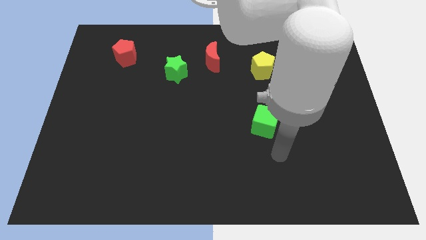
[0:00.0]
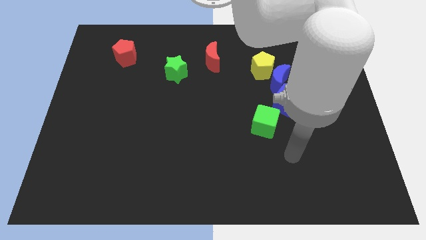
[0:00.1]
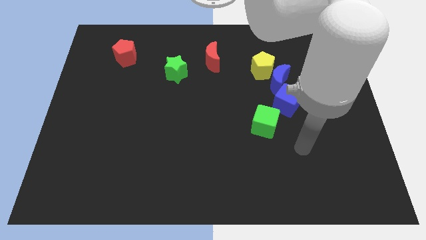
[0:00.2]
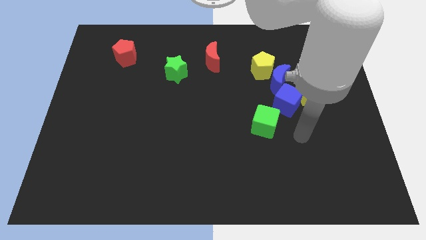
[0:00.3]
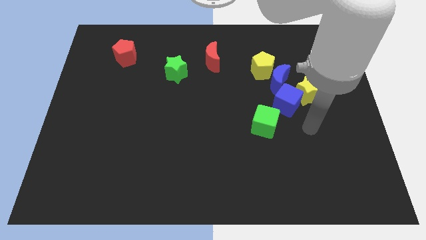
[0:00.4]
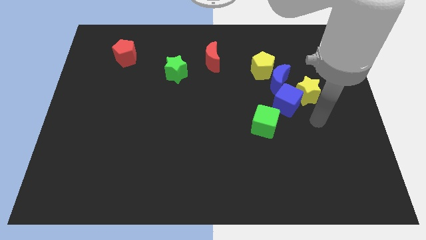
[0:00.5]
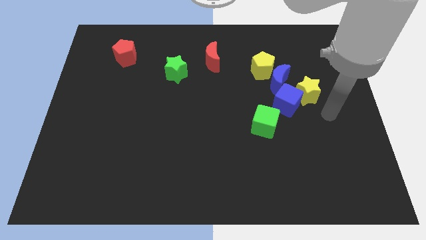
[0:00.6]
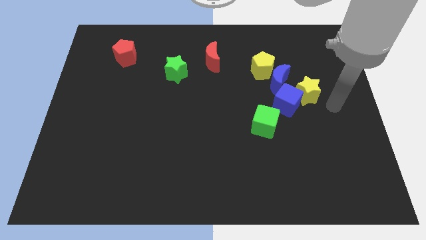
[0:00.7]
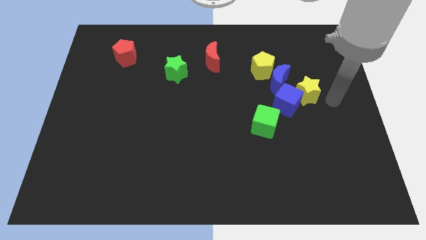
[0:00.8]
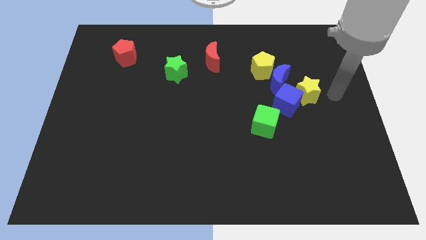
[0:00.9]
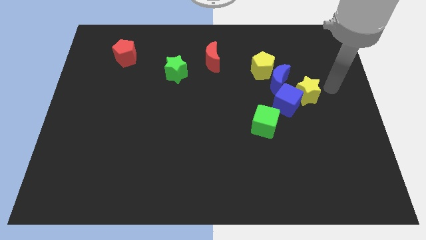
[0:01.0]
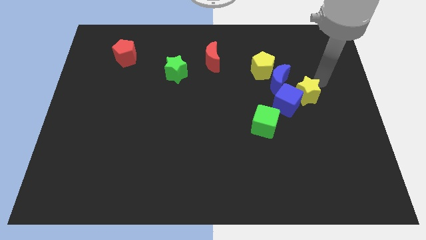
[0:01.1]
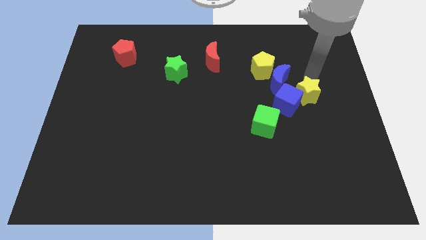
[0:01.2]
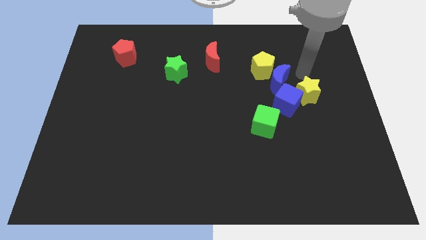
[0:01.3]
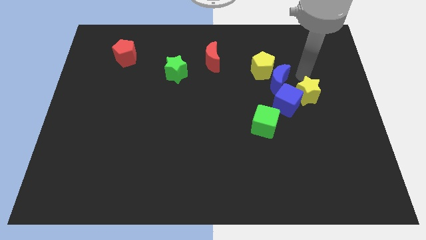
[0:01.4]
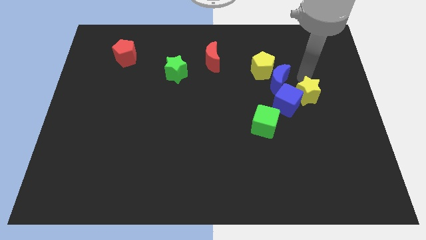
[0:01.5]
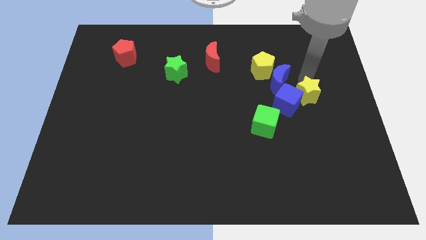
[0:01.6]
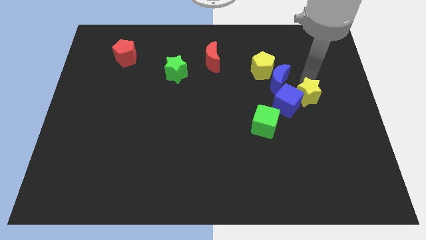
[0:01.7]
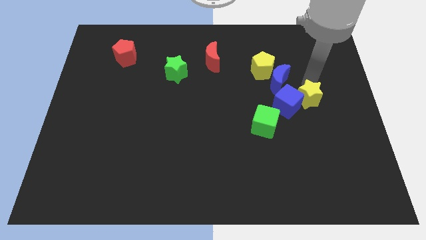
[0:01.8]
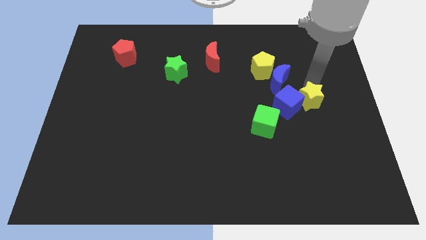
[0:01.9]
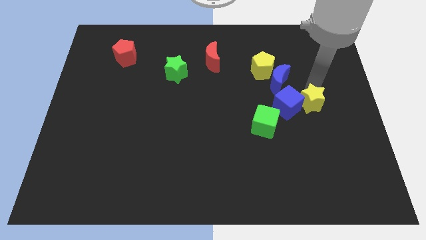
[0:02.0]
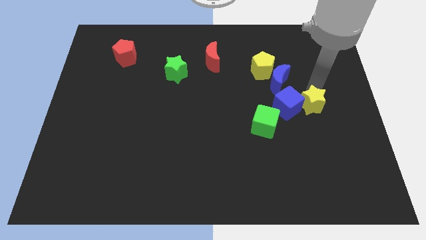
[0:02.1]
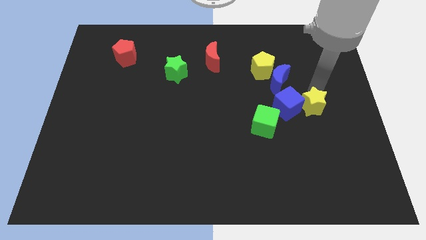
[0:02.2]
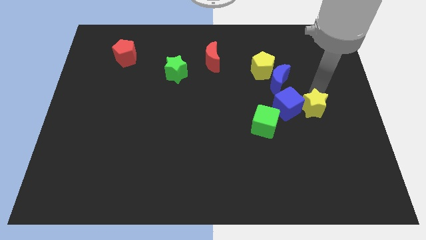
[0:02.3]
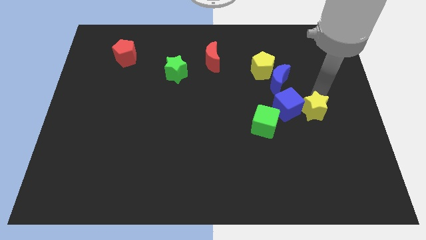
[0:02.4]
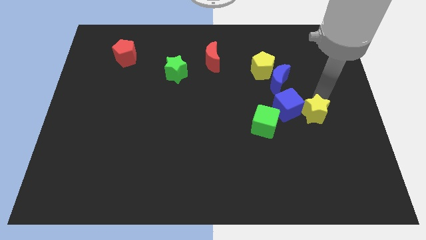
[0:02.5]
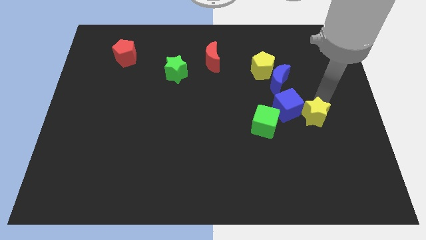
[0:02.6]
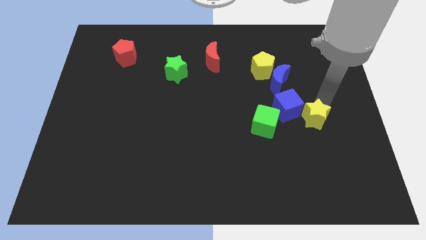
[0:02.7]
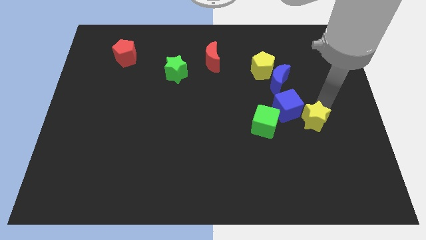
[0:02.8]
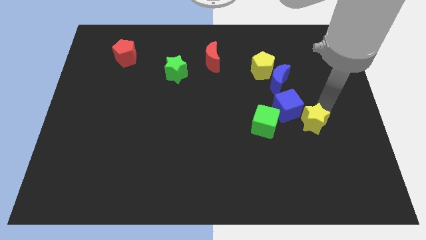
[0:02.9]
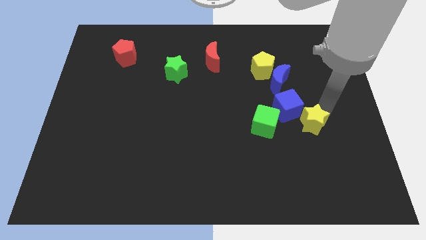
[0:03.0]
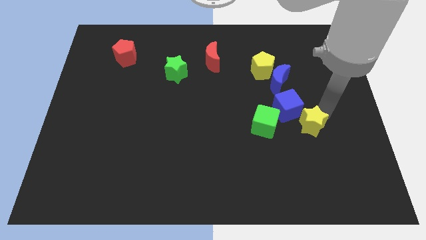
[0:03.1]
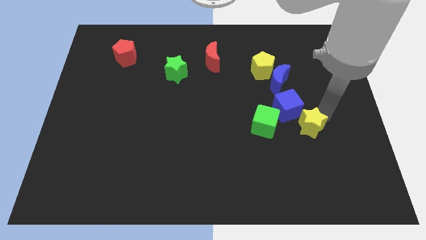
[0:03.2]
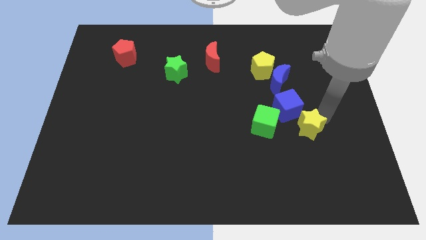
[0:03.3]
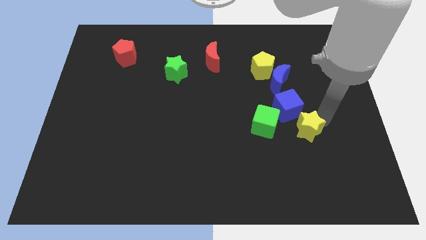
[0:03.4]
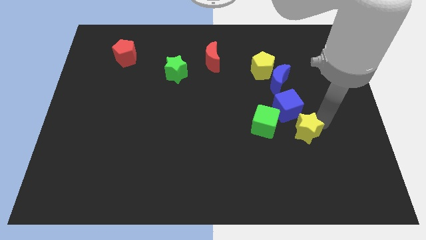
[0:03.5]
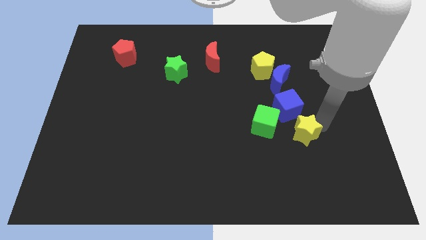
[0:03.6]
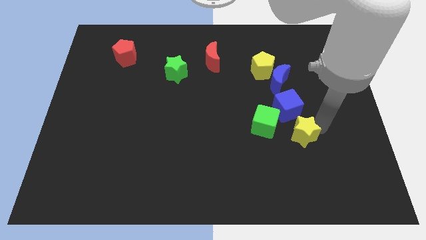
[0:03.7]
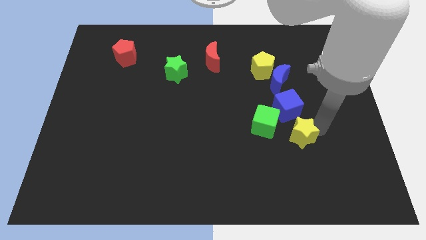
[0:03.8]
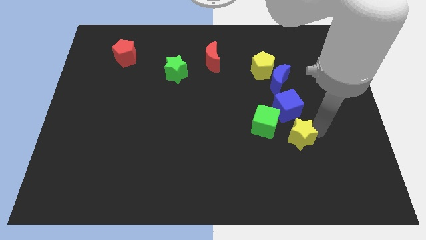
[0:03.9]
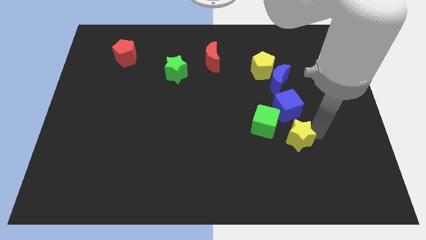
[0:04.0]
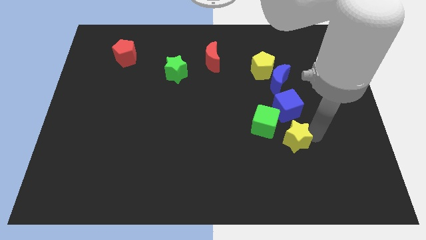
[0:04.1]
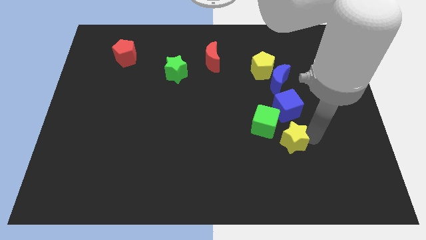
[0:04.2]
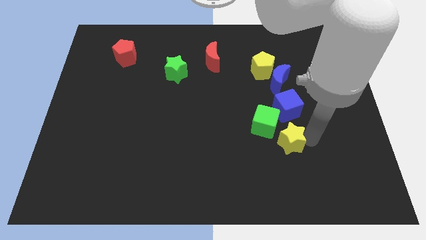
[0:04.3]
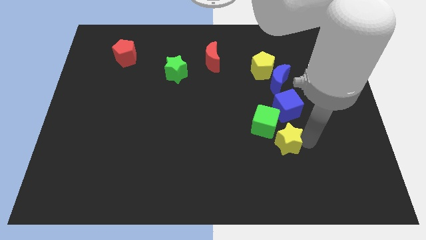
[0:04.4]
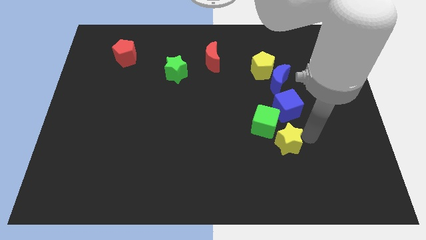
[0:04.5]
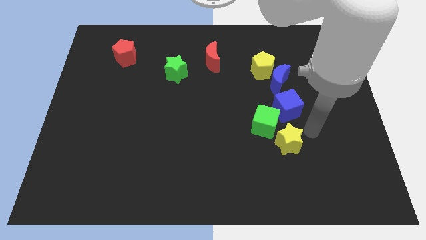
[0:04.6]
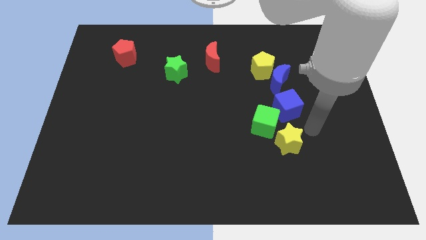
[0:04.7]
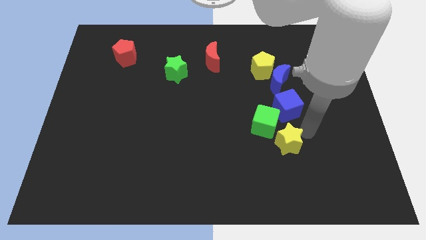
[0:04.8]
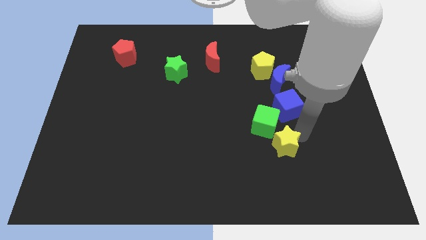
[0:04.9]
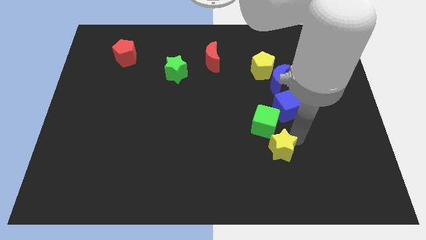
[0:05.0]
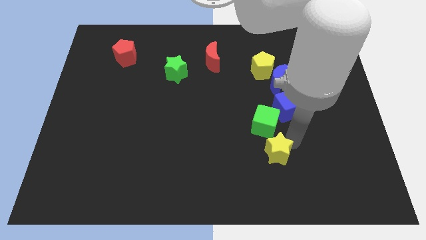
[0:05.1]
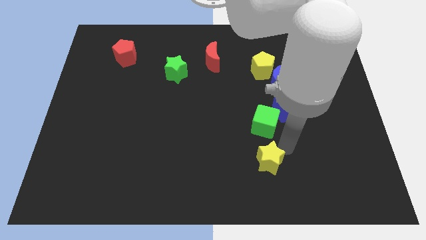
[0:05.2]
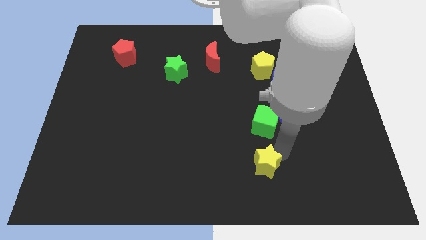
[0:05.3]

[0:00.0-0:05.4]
slide the yellow star diagonally down and to the left

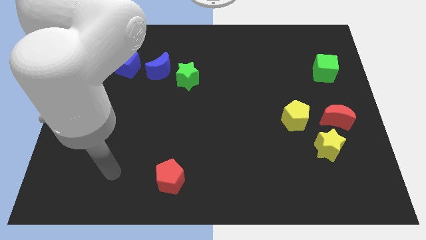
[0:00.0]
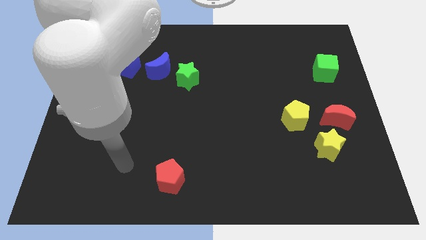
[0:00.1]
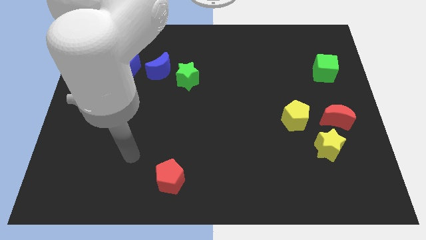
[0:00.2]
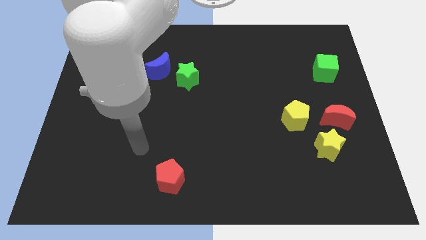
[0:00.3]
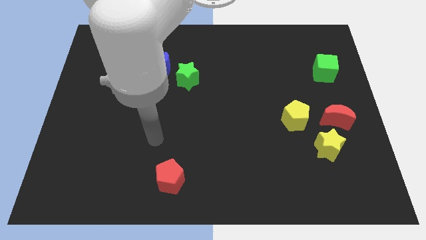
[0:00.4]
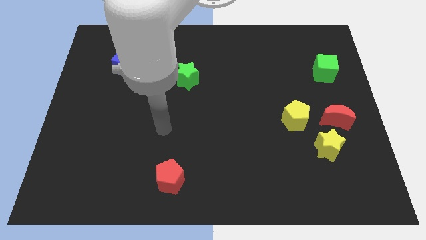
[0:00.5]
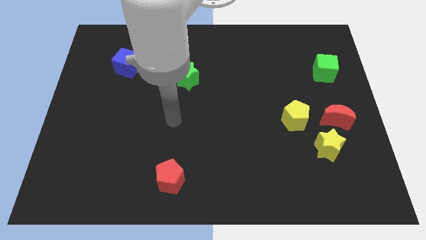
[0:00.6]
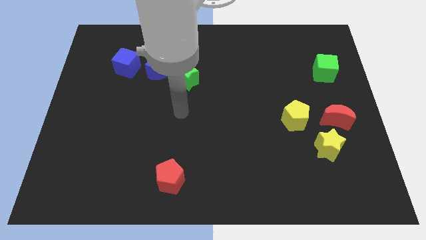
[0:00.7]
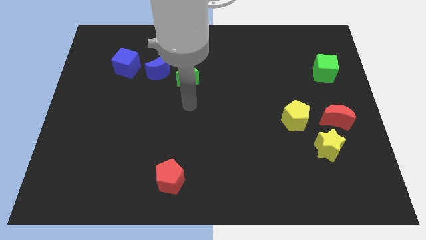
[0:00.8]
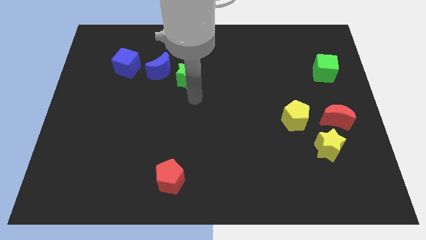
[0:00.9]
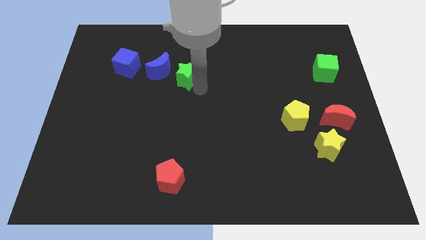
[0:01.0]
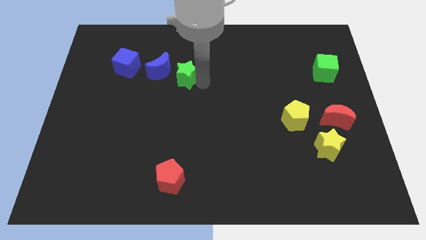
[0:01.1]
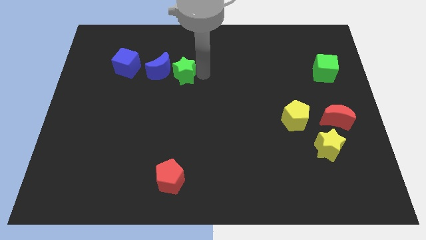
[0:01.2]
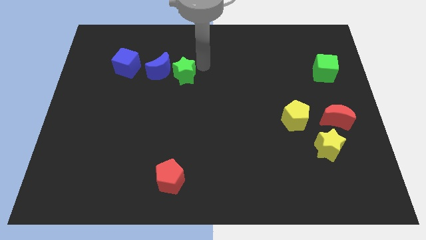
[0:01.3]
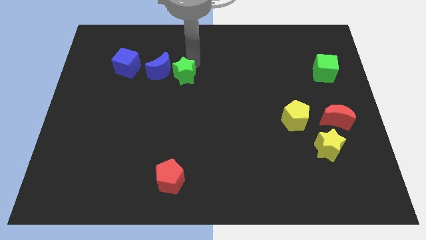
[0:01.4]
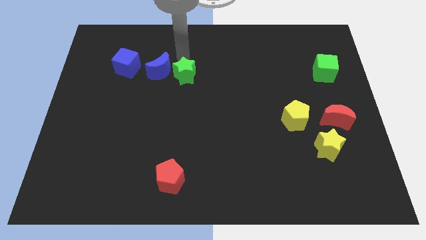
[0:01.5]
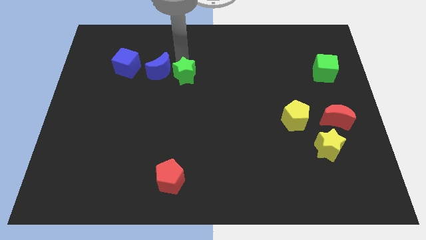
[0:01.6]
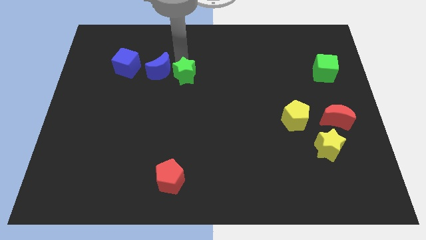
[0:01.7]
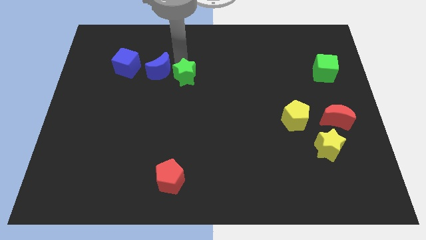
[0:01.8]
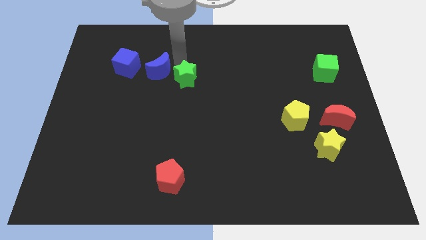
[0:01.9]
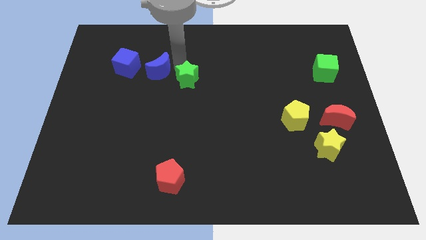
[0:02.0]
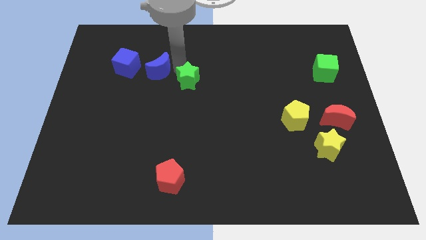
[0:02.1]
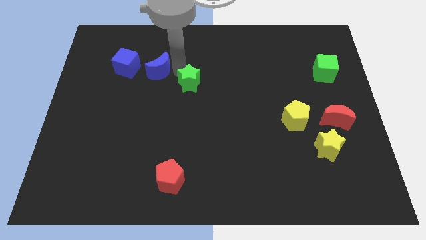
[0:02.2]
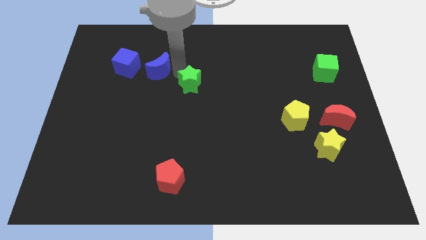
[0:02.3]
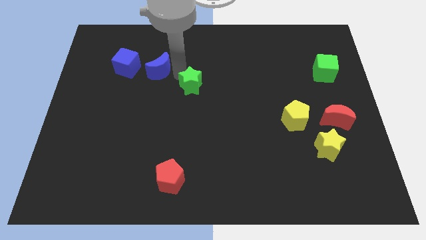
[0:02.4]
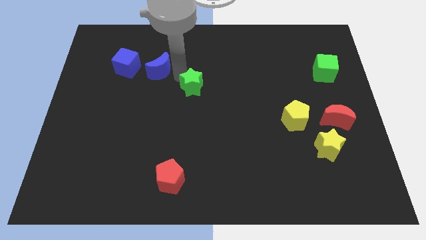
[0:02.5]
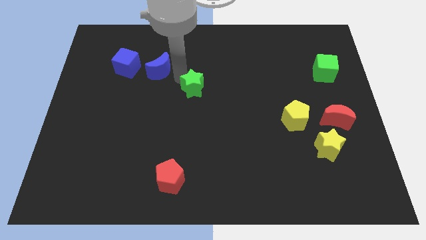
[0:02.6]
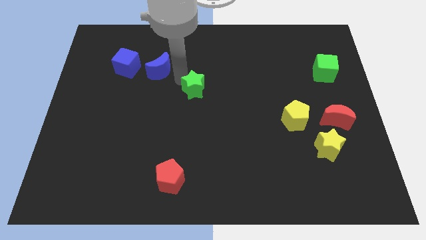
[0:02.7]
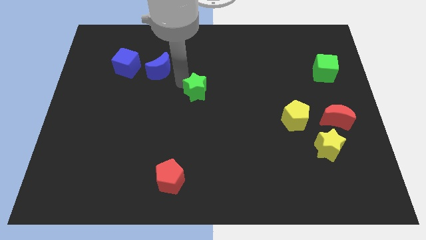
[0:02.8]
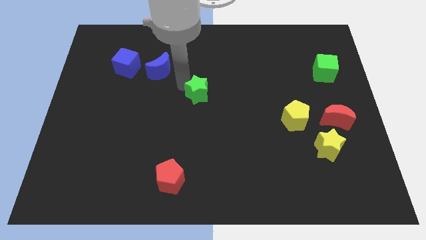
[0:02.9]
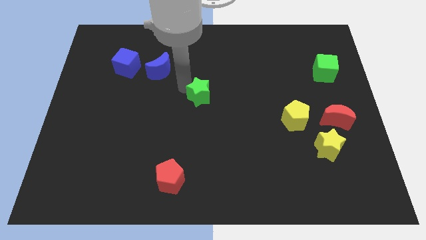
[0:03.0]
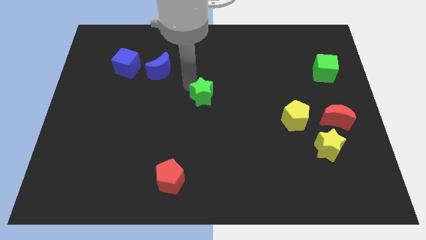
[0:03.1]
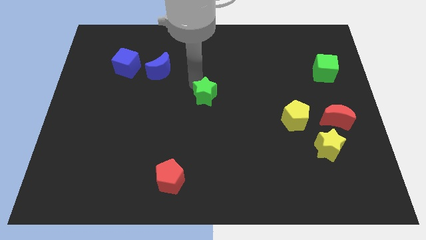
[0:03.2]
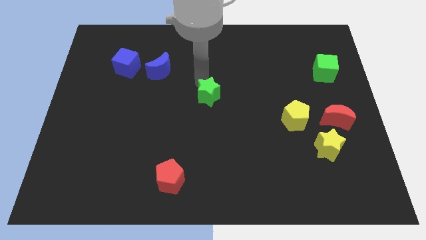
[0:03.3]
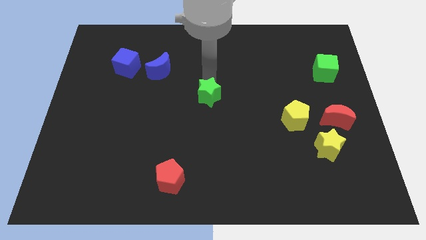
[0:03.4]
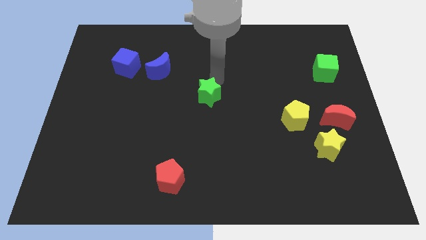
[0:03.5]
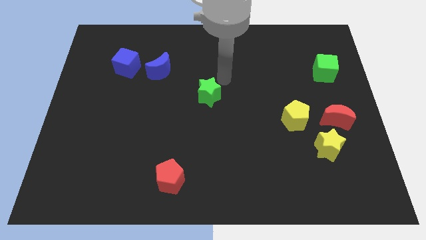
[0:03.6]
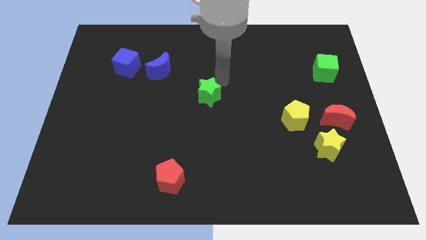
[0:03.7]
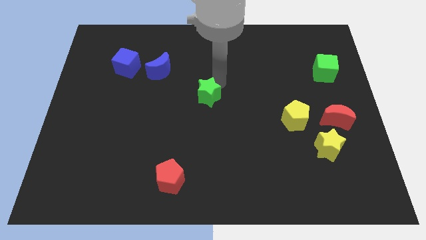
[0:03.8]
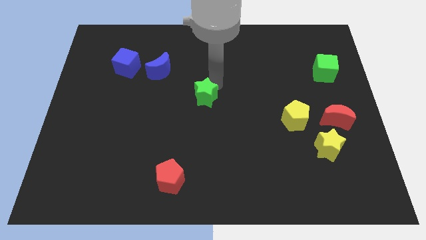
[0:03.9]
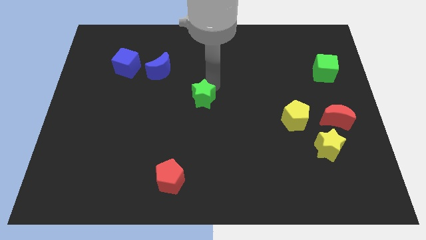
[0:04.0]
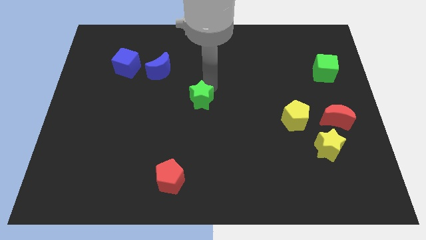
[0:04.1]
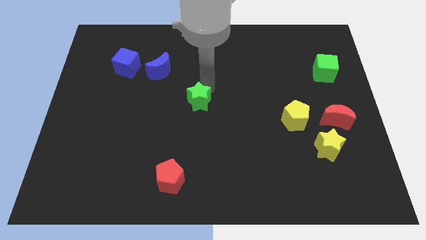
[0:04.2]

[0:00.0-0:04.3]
push the green star a little downwards
